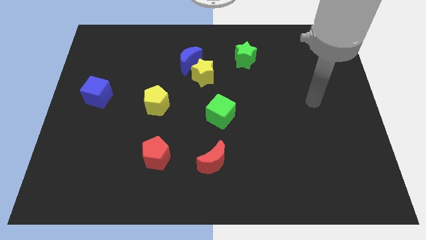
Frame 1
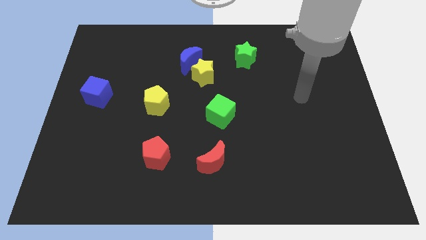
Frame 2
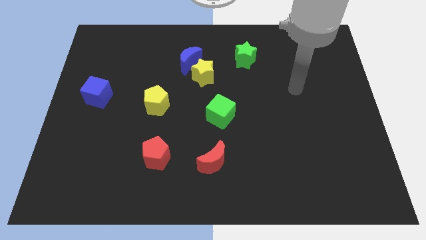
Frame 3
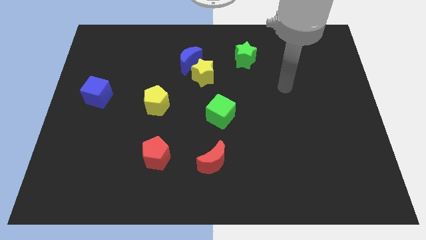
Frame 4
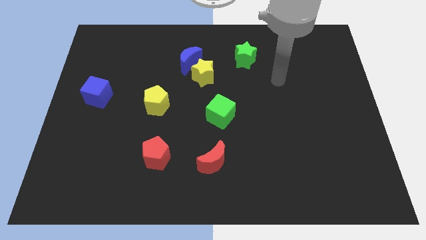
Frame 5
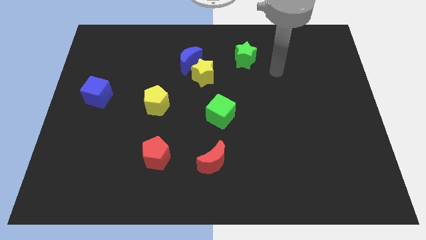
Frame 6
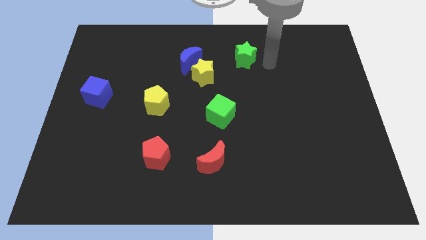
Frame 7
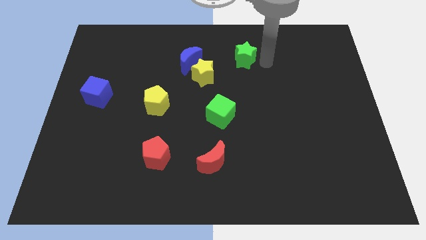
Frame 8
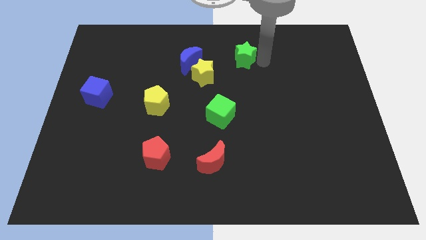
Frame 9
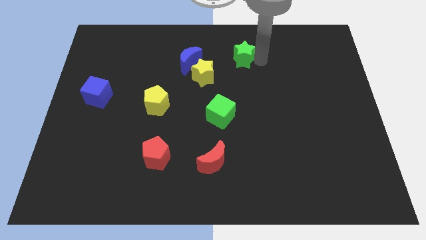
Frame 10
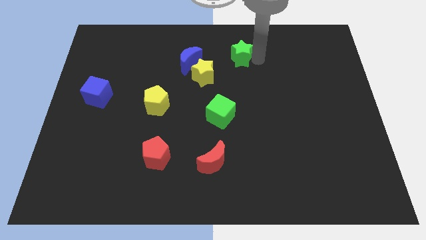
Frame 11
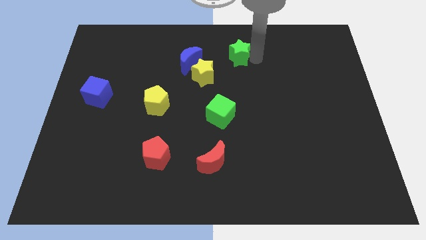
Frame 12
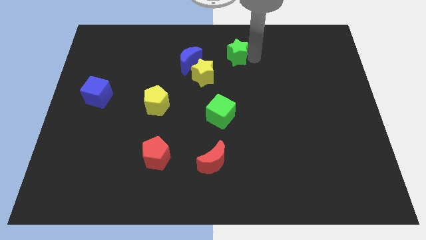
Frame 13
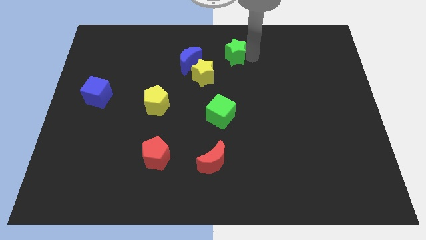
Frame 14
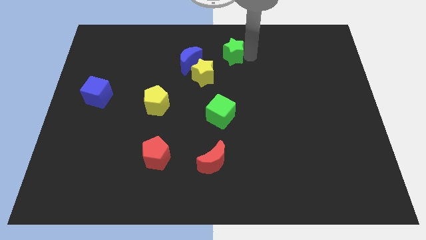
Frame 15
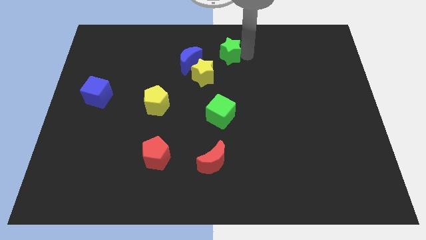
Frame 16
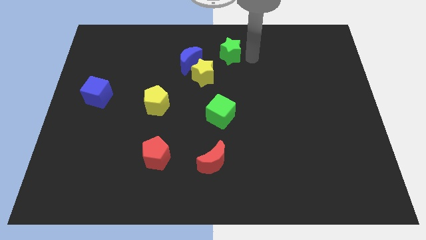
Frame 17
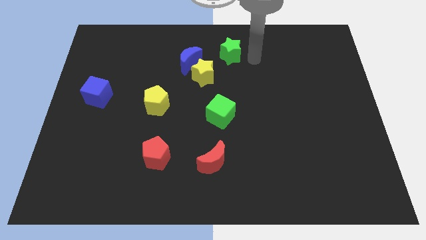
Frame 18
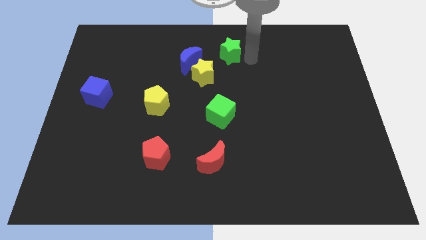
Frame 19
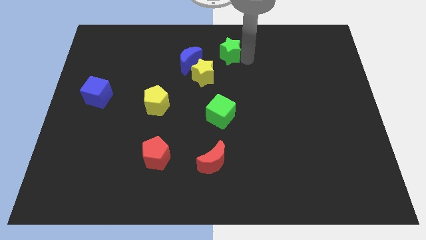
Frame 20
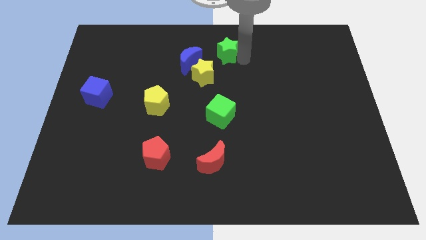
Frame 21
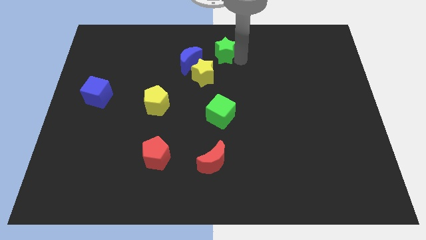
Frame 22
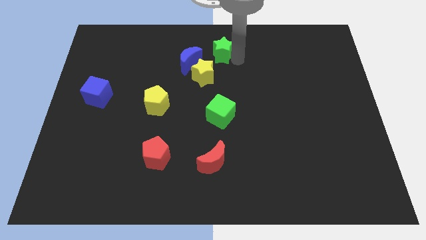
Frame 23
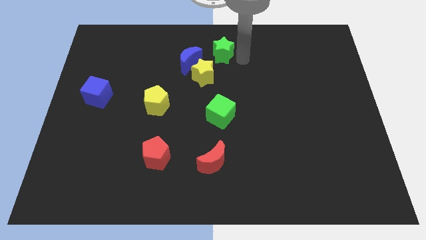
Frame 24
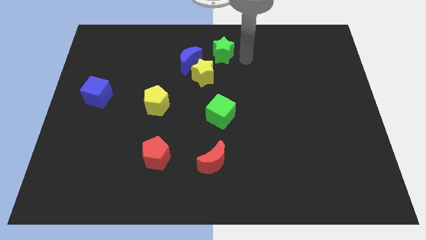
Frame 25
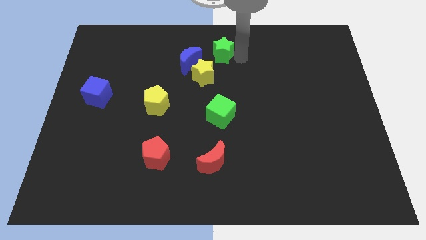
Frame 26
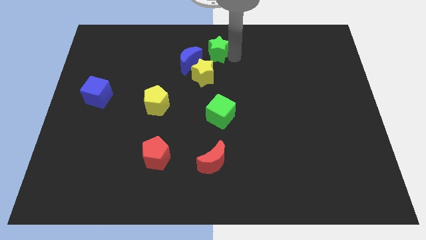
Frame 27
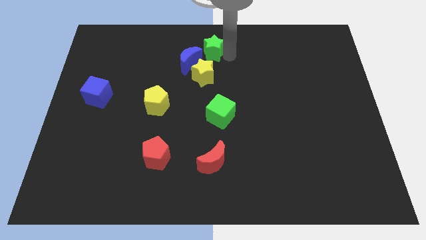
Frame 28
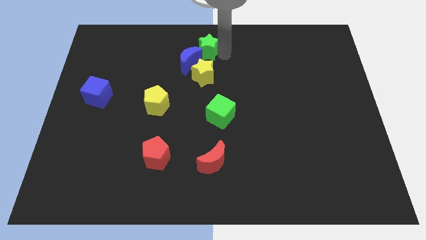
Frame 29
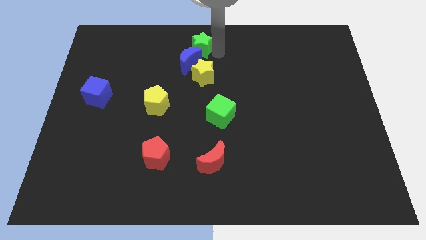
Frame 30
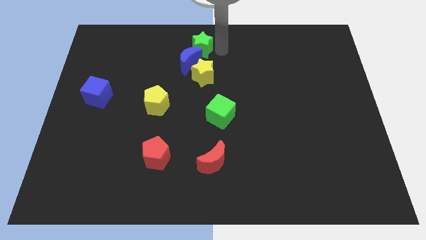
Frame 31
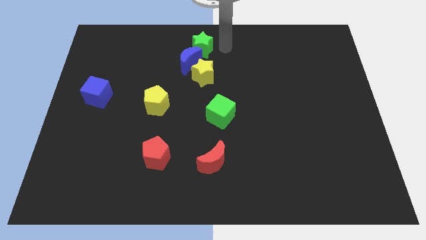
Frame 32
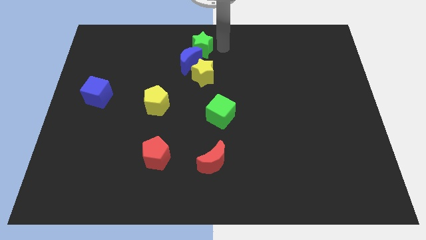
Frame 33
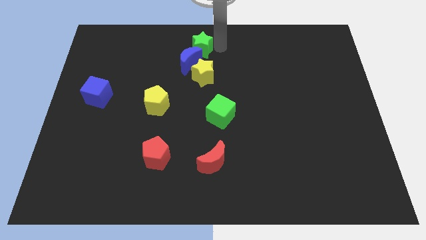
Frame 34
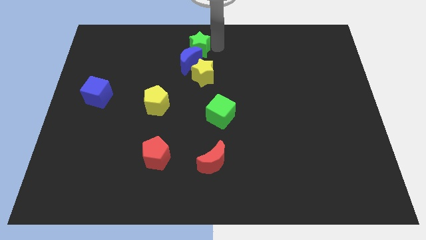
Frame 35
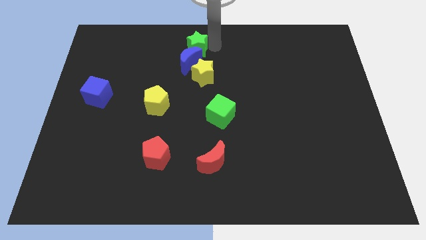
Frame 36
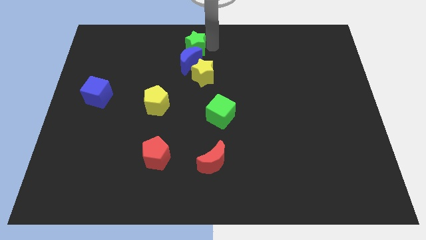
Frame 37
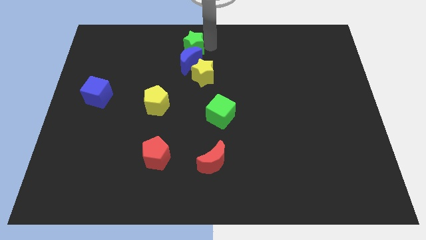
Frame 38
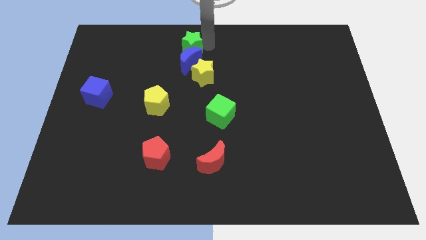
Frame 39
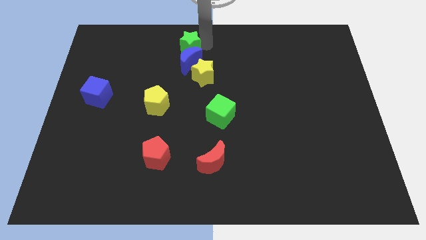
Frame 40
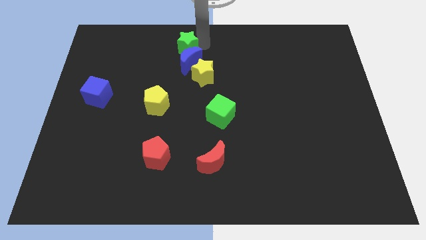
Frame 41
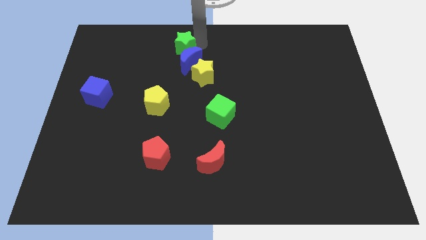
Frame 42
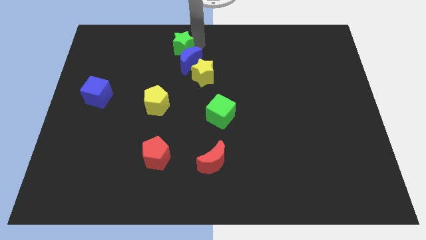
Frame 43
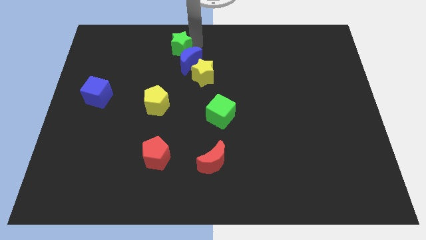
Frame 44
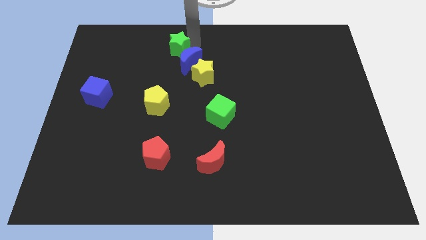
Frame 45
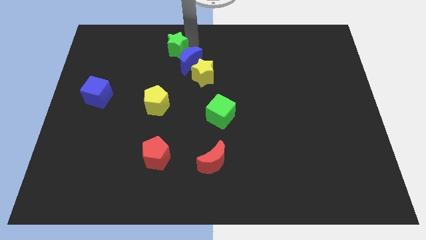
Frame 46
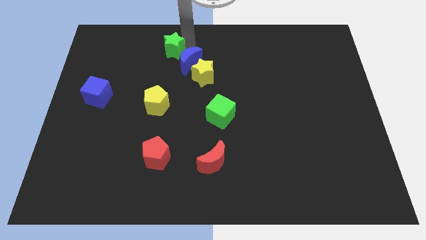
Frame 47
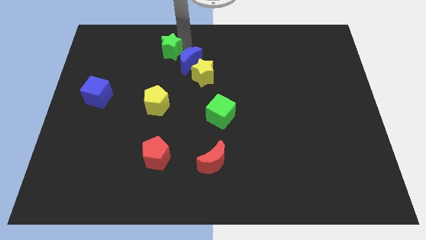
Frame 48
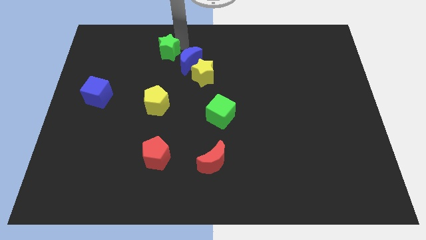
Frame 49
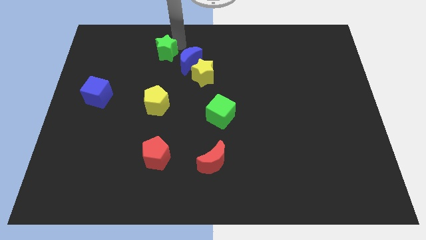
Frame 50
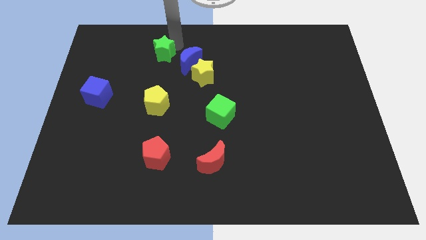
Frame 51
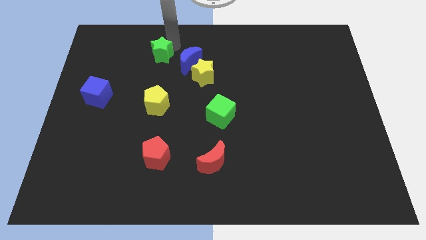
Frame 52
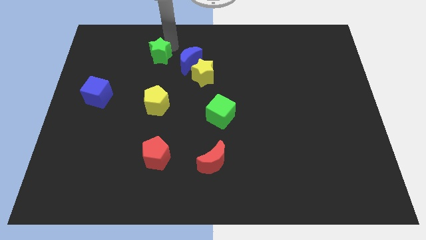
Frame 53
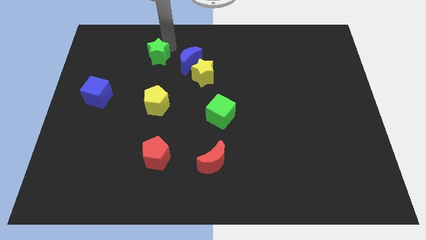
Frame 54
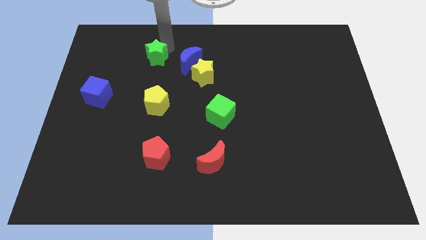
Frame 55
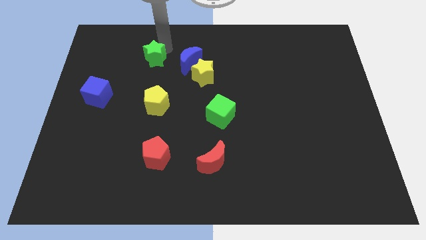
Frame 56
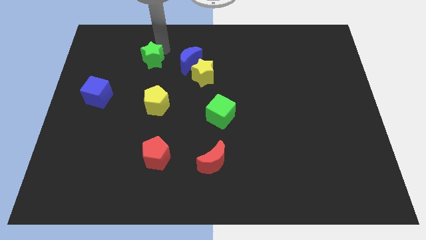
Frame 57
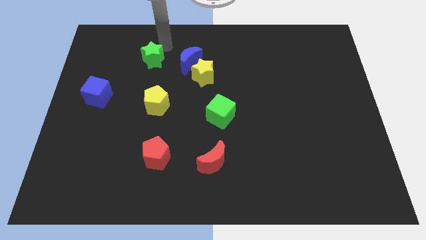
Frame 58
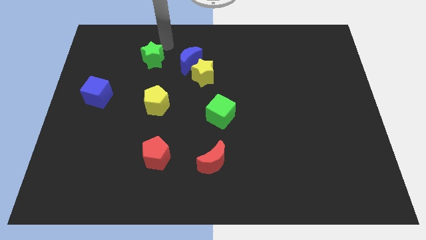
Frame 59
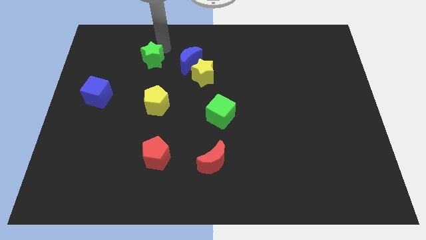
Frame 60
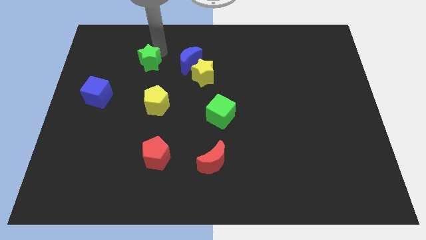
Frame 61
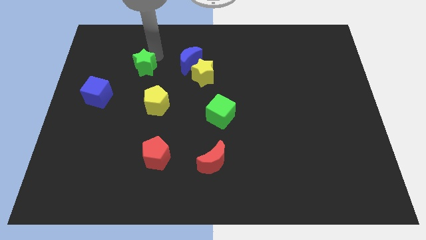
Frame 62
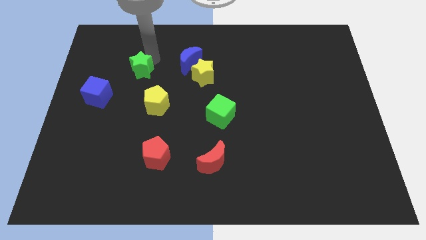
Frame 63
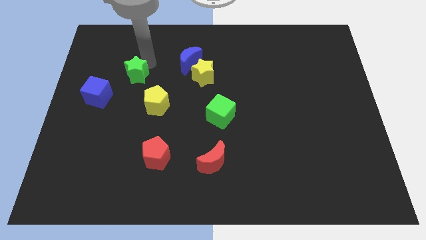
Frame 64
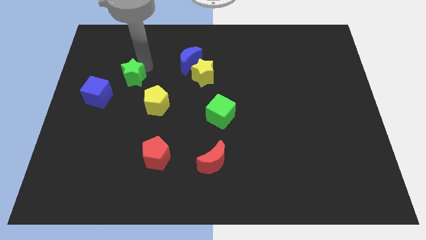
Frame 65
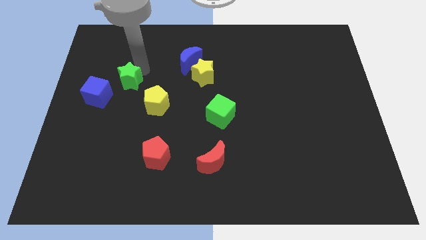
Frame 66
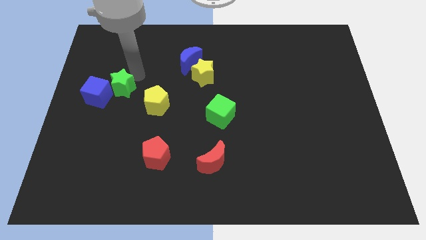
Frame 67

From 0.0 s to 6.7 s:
put the green star next to the blue cube
